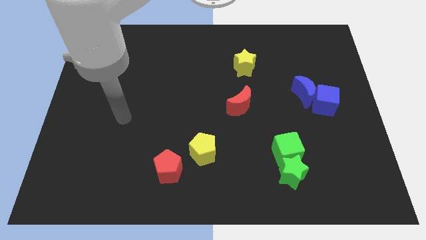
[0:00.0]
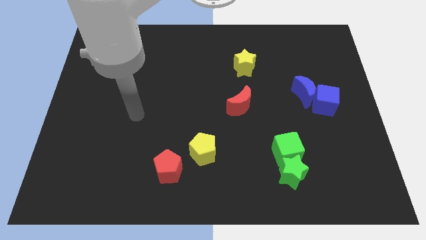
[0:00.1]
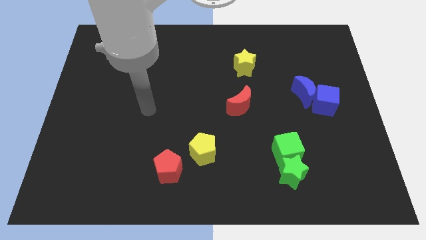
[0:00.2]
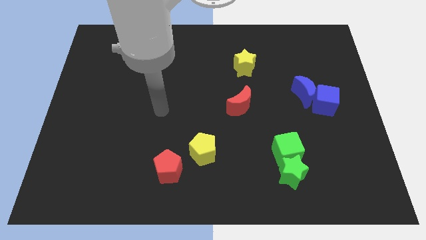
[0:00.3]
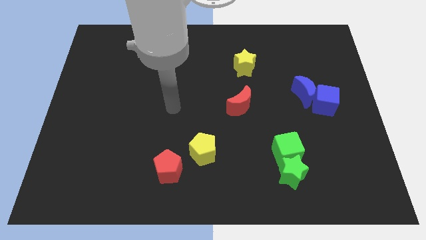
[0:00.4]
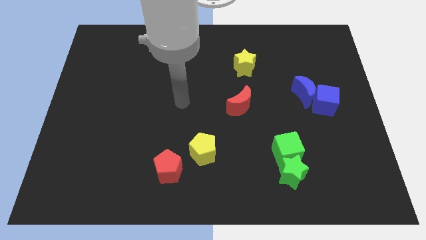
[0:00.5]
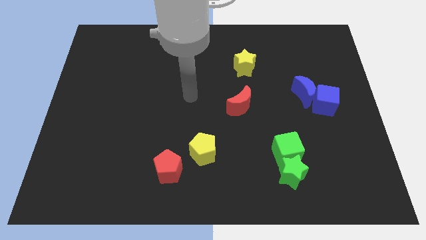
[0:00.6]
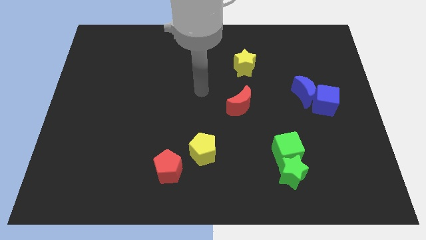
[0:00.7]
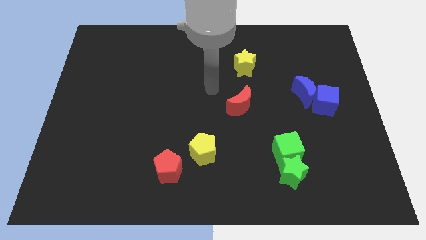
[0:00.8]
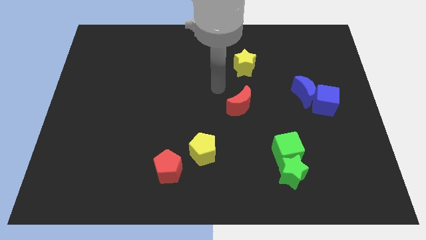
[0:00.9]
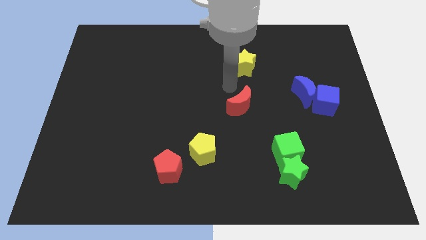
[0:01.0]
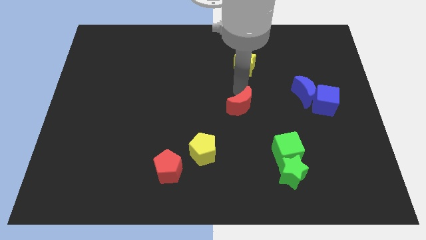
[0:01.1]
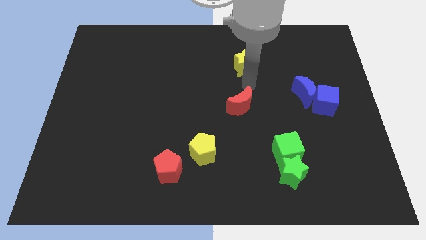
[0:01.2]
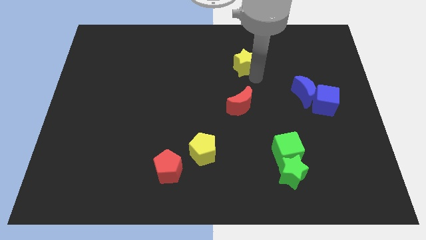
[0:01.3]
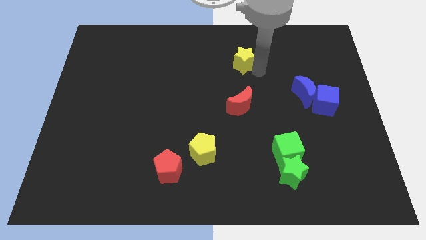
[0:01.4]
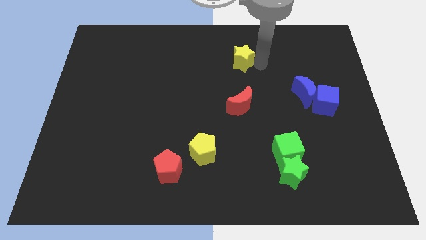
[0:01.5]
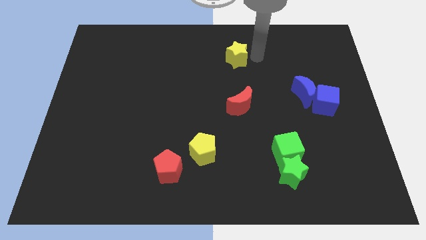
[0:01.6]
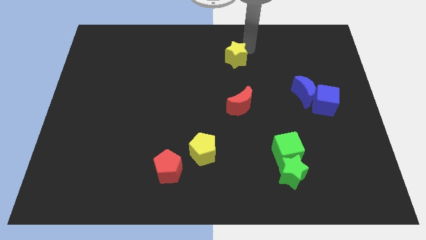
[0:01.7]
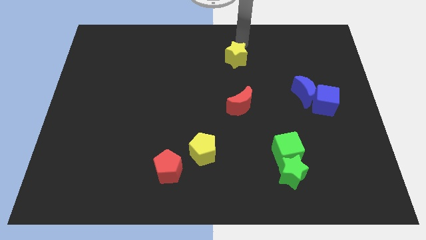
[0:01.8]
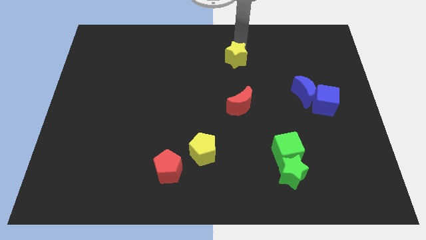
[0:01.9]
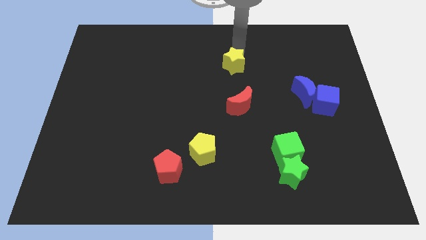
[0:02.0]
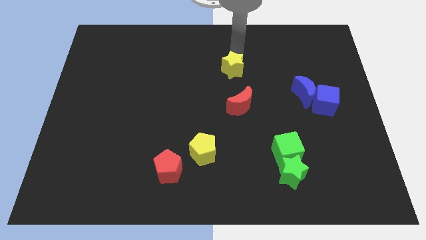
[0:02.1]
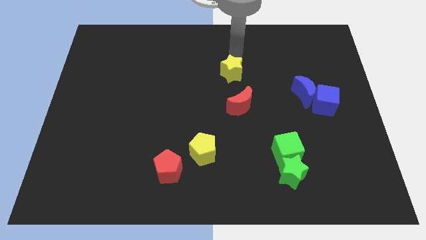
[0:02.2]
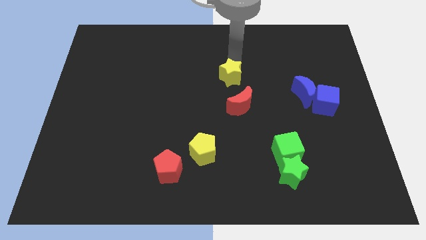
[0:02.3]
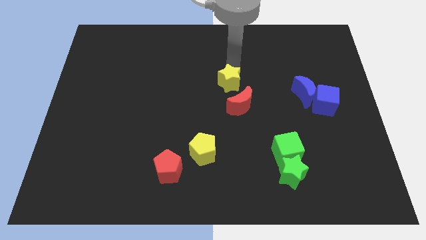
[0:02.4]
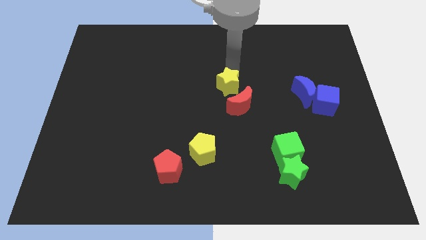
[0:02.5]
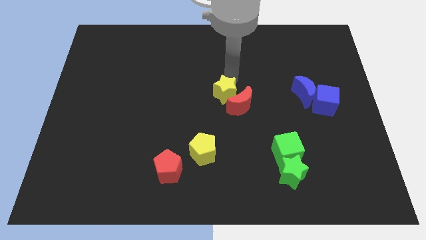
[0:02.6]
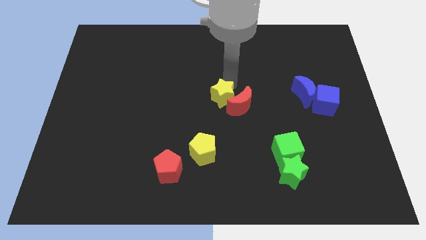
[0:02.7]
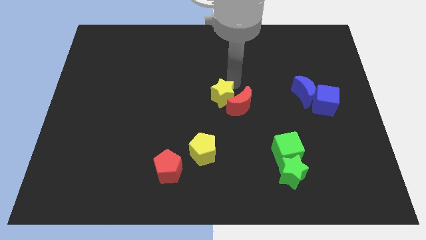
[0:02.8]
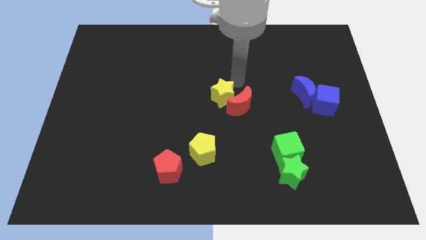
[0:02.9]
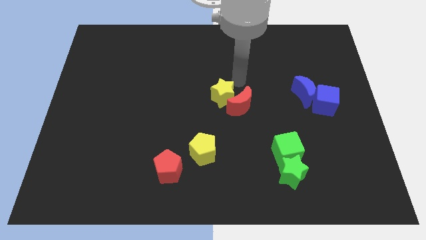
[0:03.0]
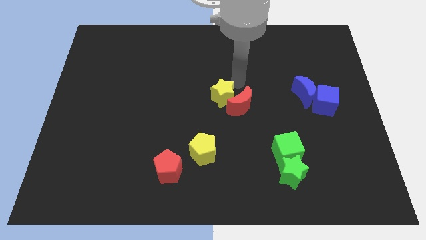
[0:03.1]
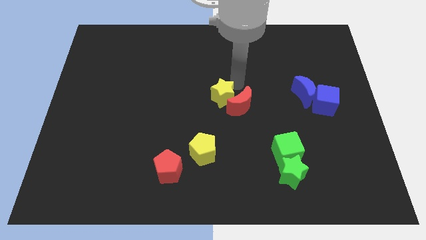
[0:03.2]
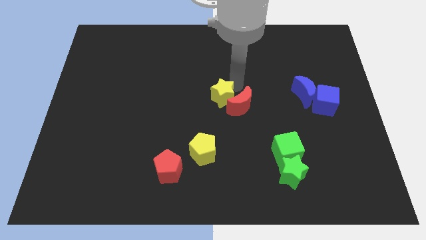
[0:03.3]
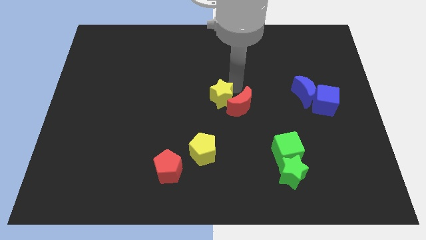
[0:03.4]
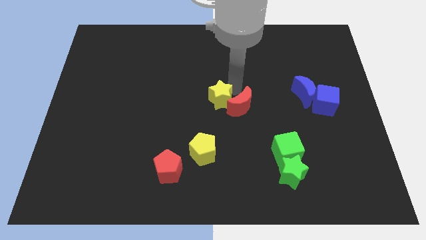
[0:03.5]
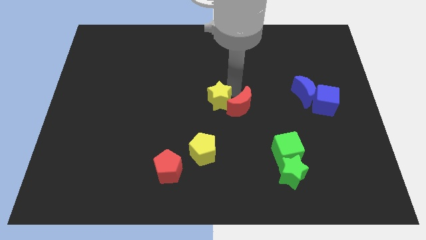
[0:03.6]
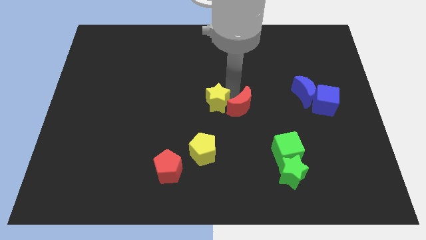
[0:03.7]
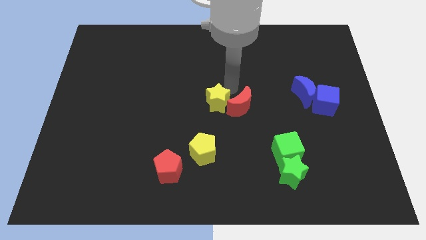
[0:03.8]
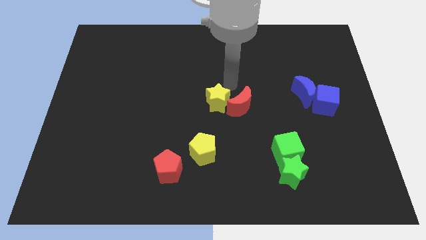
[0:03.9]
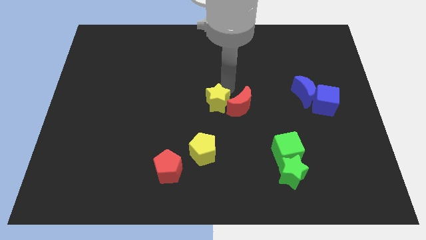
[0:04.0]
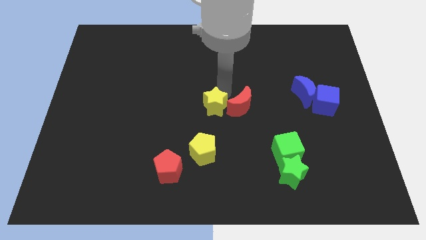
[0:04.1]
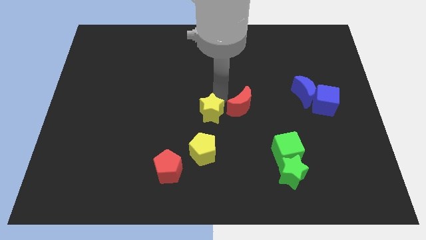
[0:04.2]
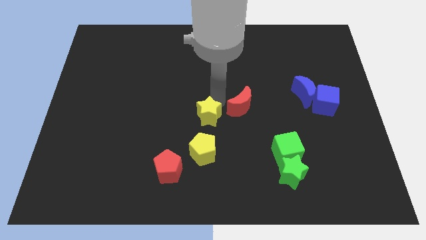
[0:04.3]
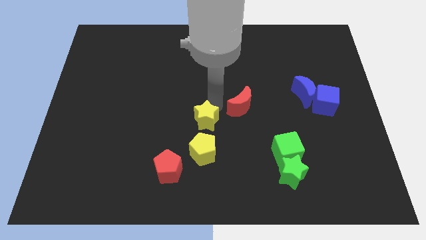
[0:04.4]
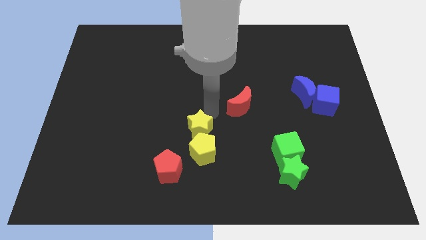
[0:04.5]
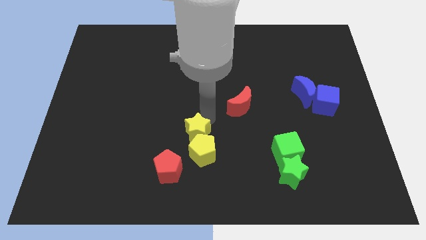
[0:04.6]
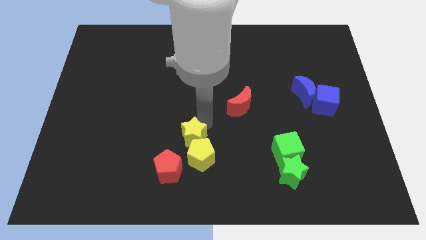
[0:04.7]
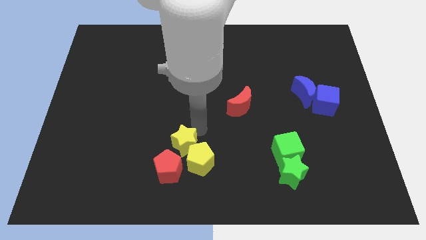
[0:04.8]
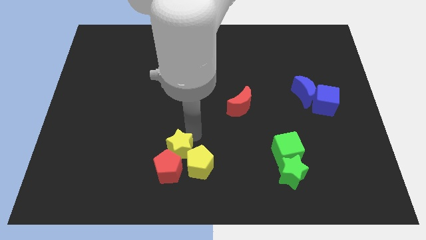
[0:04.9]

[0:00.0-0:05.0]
slide the yellow star next to the red pentagon

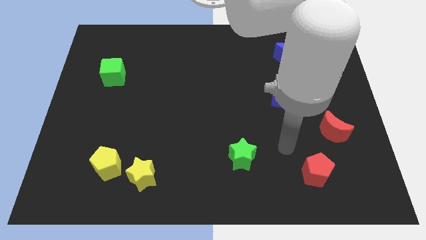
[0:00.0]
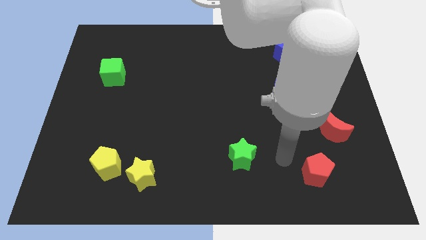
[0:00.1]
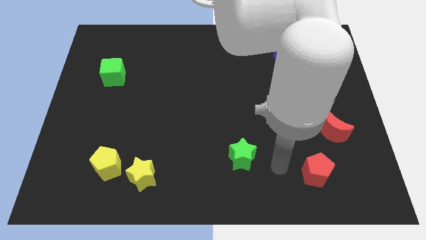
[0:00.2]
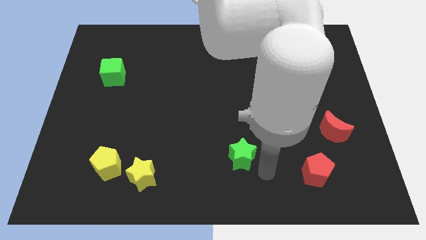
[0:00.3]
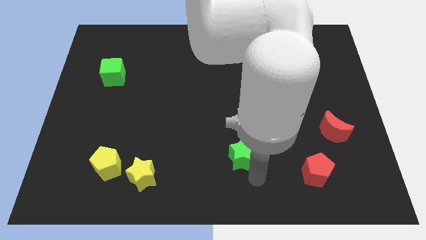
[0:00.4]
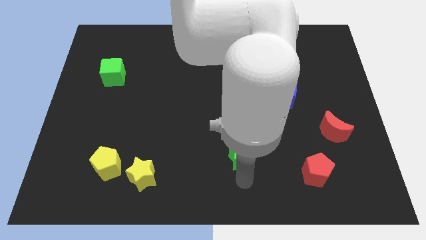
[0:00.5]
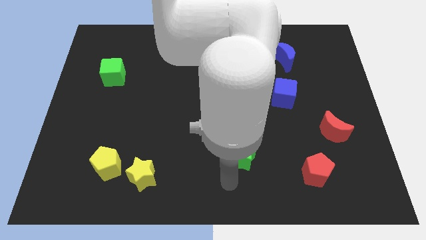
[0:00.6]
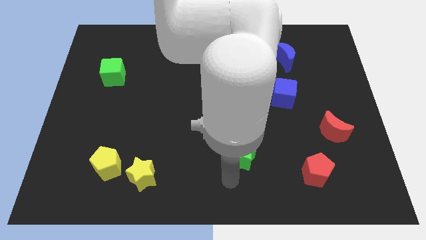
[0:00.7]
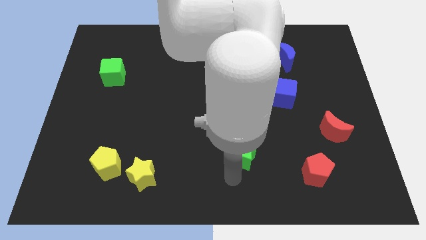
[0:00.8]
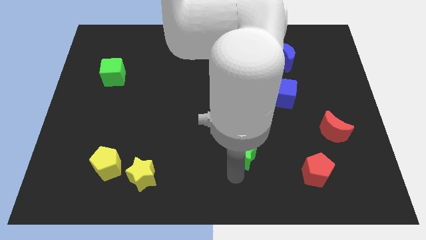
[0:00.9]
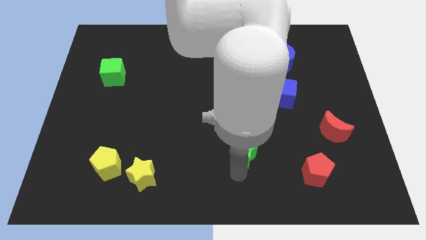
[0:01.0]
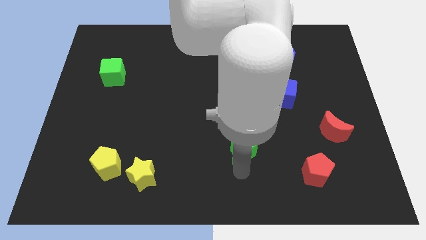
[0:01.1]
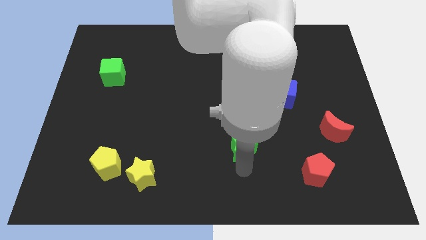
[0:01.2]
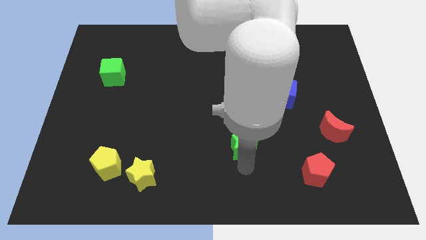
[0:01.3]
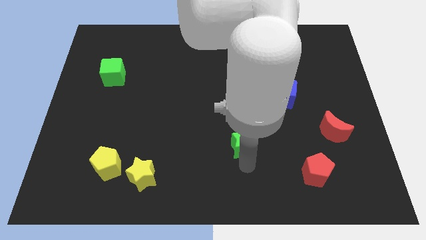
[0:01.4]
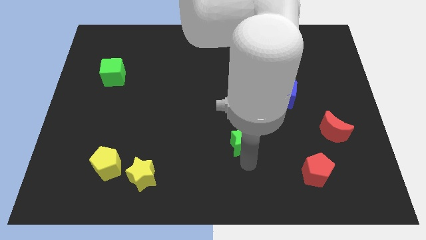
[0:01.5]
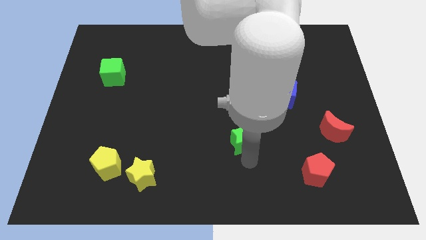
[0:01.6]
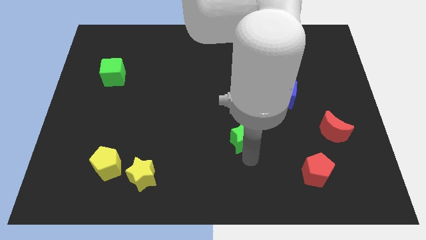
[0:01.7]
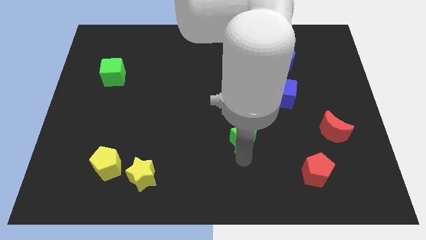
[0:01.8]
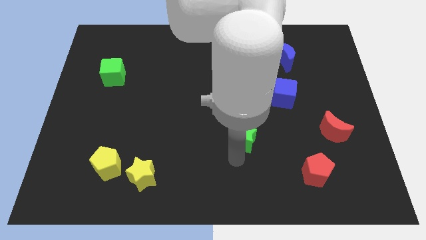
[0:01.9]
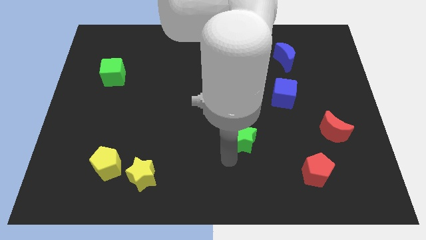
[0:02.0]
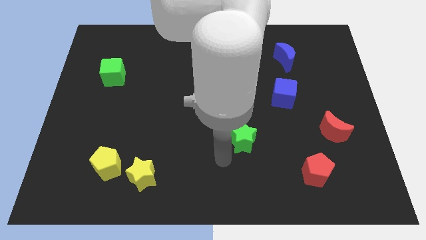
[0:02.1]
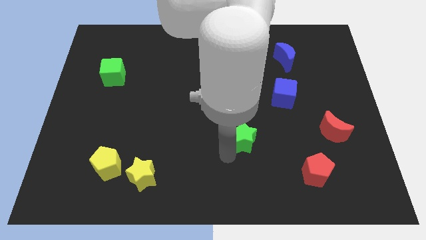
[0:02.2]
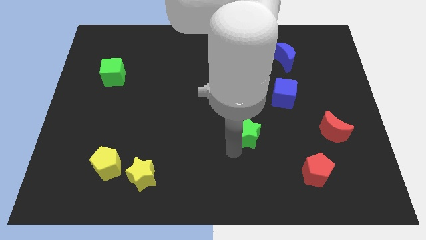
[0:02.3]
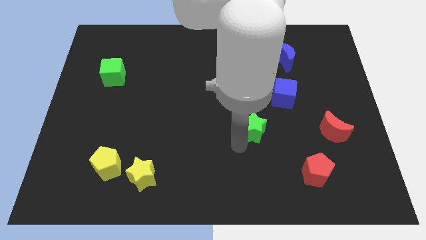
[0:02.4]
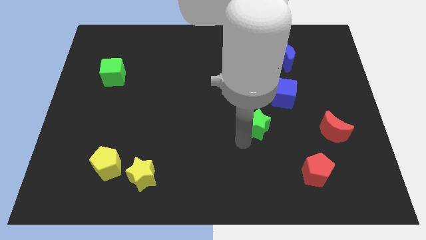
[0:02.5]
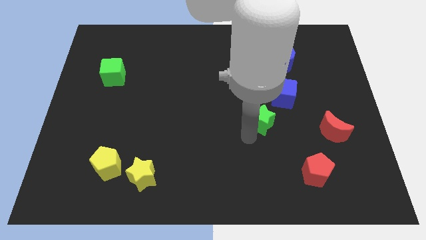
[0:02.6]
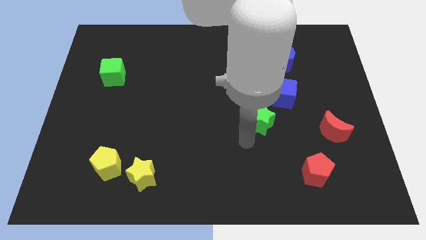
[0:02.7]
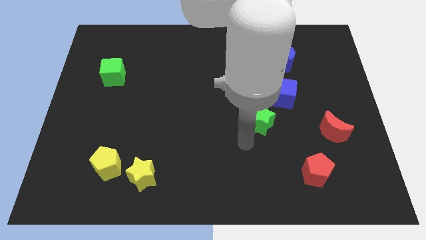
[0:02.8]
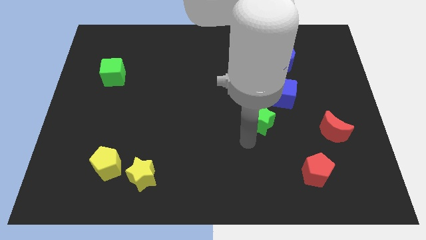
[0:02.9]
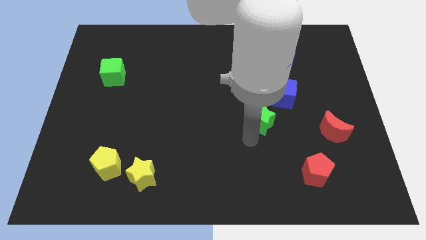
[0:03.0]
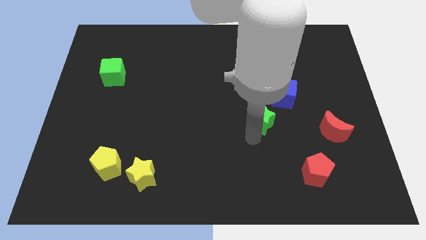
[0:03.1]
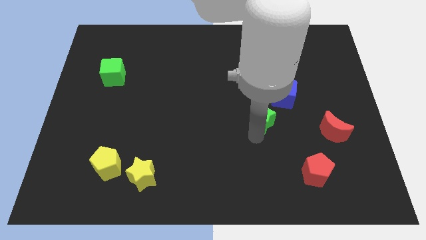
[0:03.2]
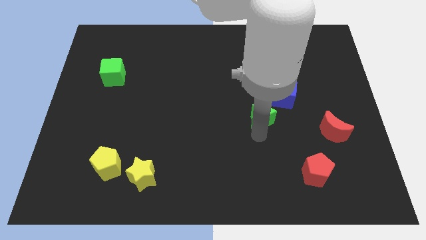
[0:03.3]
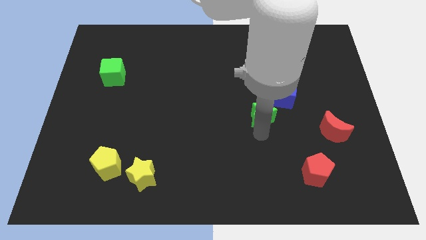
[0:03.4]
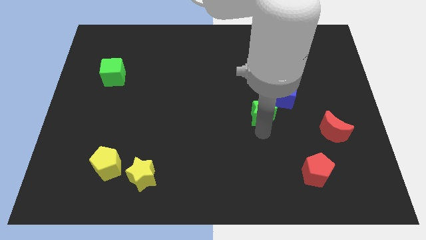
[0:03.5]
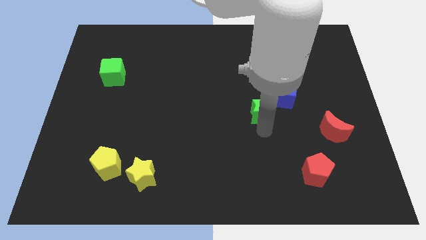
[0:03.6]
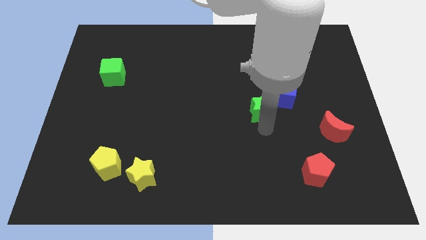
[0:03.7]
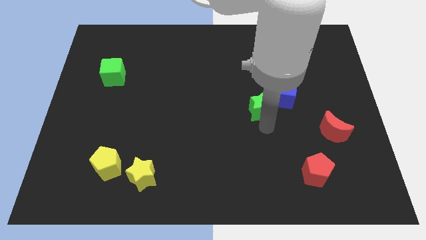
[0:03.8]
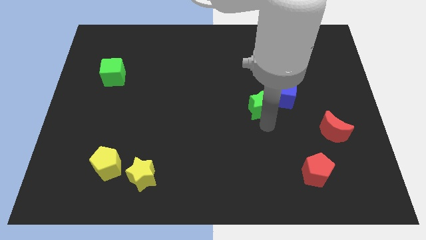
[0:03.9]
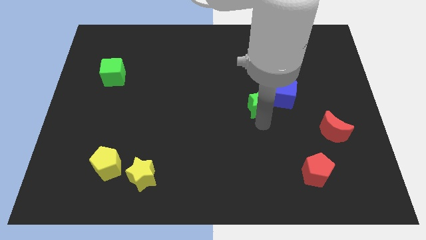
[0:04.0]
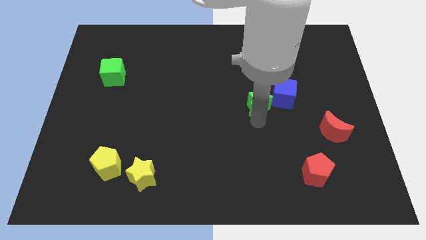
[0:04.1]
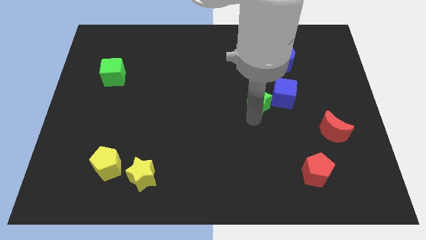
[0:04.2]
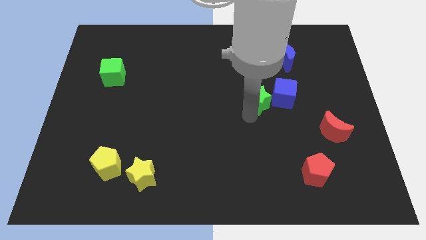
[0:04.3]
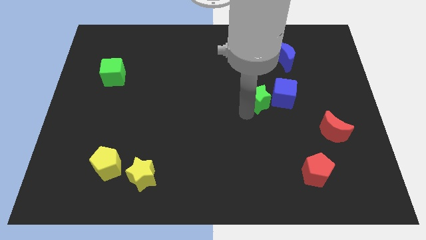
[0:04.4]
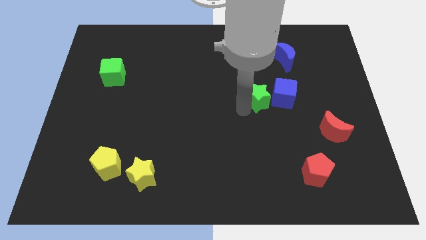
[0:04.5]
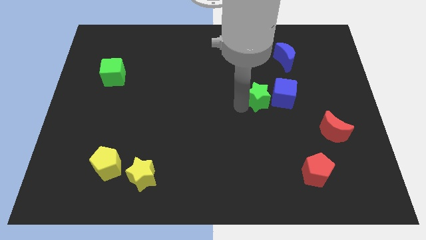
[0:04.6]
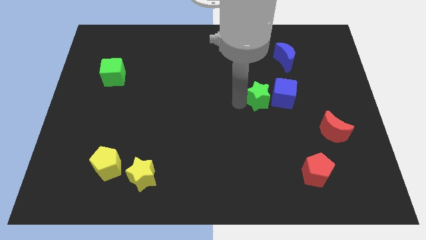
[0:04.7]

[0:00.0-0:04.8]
put the green star close to the blue cube
